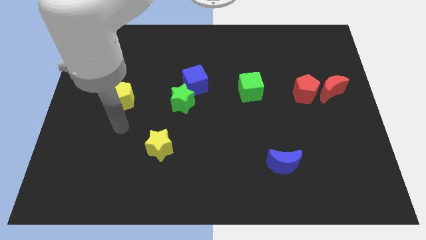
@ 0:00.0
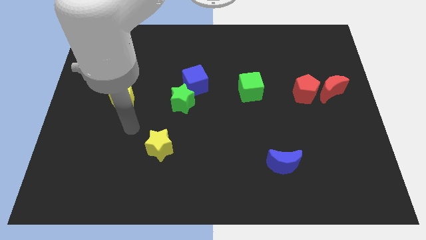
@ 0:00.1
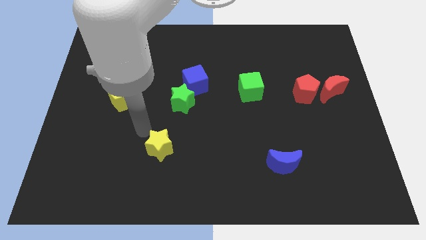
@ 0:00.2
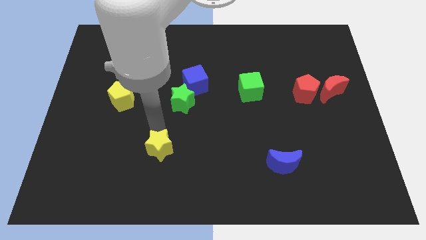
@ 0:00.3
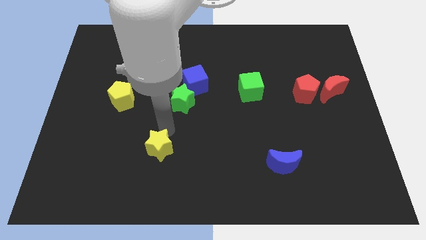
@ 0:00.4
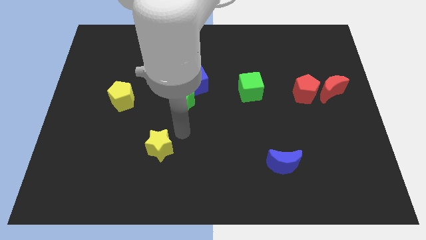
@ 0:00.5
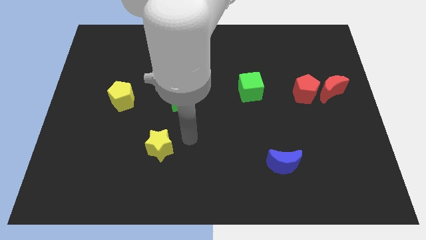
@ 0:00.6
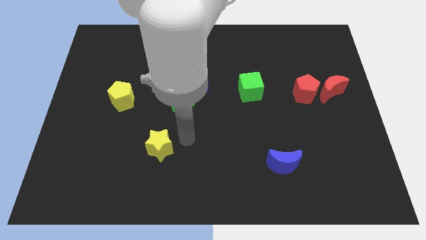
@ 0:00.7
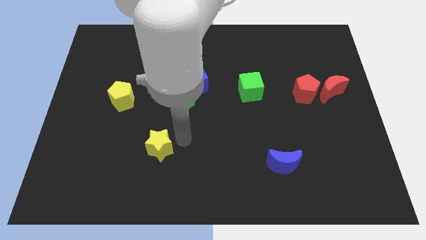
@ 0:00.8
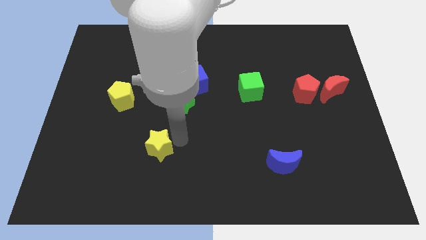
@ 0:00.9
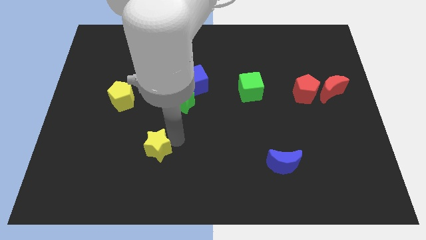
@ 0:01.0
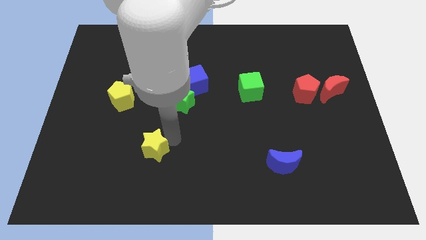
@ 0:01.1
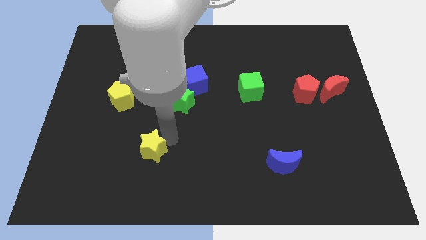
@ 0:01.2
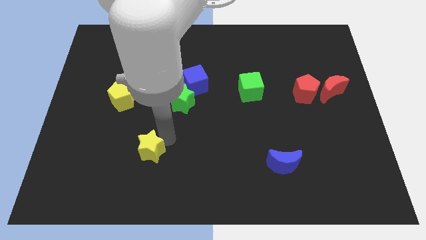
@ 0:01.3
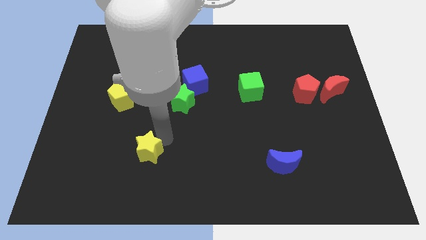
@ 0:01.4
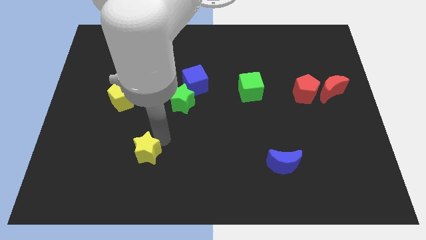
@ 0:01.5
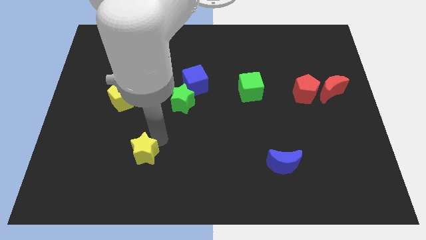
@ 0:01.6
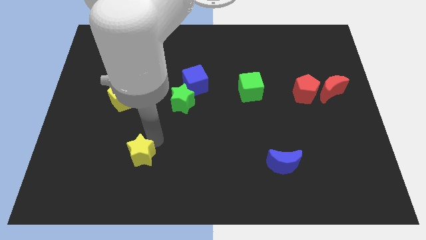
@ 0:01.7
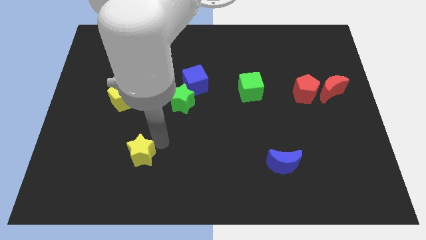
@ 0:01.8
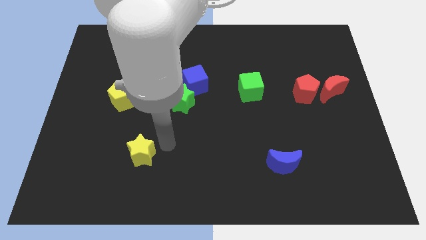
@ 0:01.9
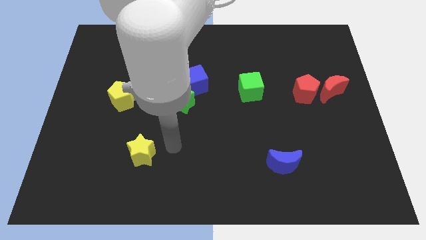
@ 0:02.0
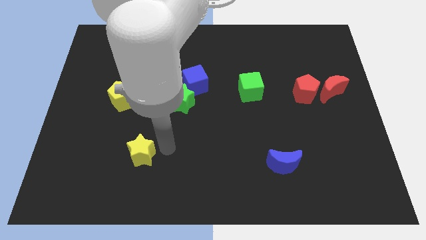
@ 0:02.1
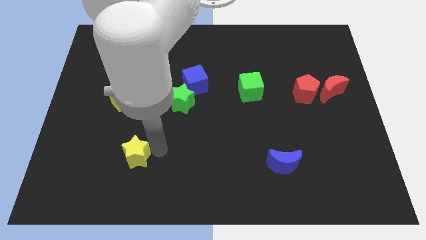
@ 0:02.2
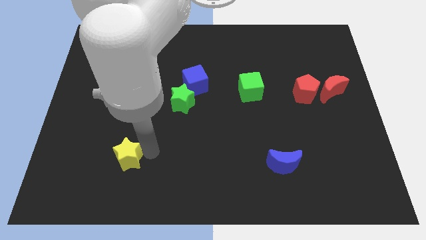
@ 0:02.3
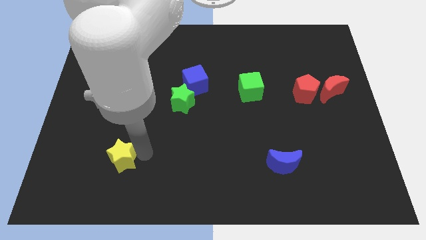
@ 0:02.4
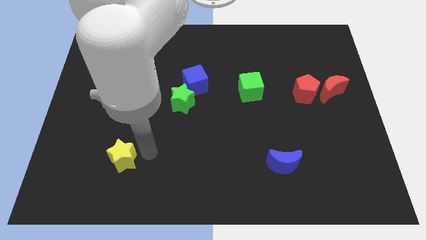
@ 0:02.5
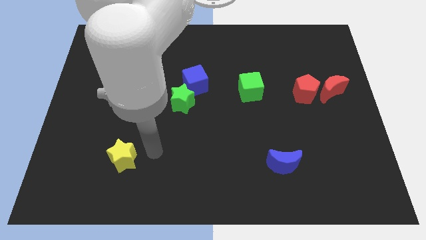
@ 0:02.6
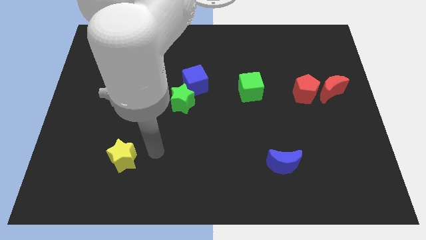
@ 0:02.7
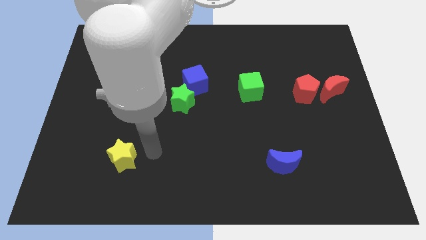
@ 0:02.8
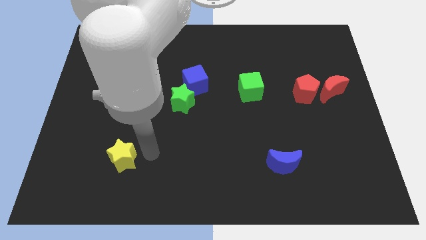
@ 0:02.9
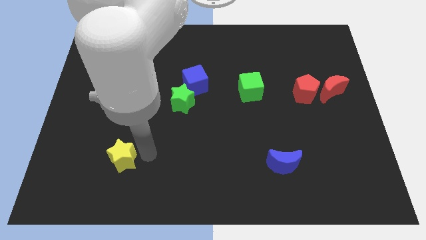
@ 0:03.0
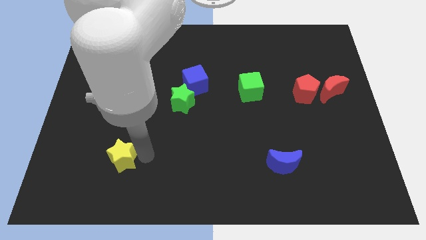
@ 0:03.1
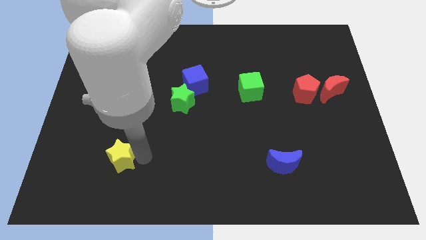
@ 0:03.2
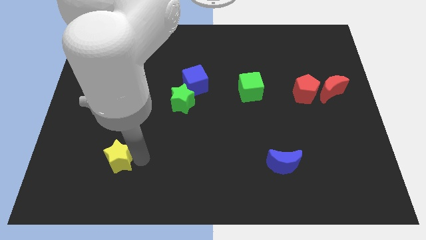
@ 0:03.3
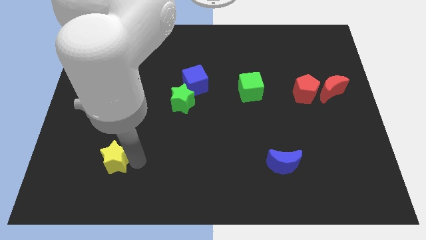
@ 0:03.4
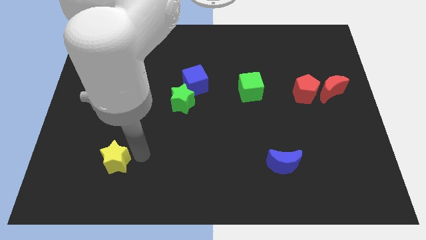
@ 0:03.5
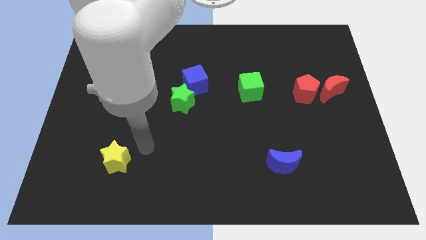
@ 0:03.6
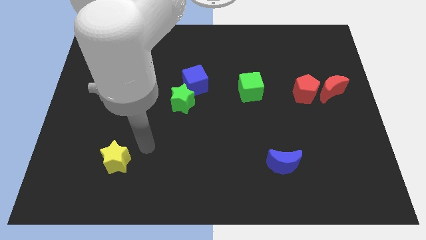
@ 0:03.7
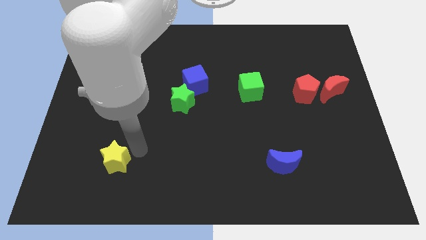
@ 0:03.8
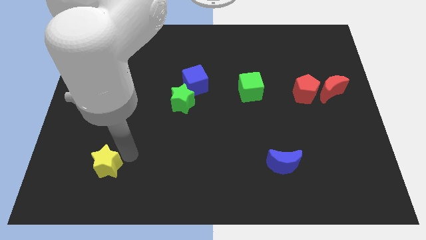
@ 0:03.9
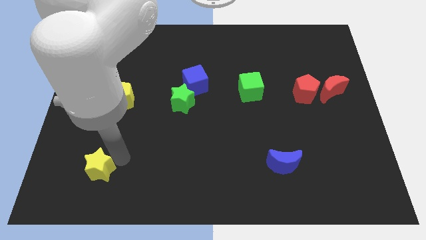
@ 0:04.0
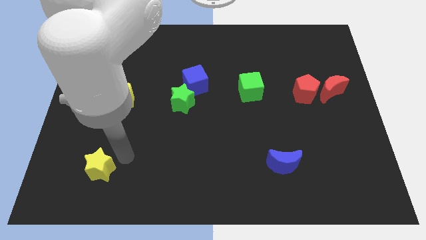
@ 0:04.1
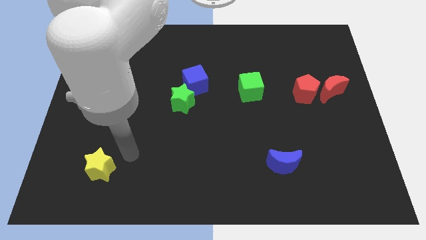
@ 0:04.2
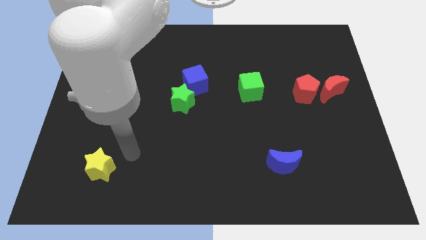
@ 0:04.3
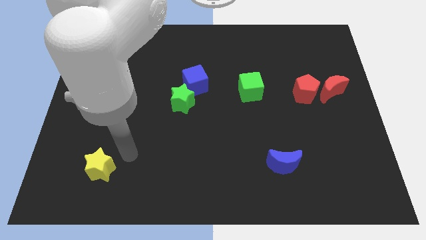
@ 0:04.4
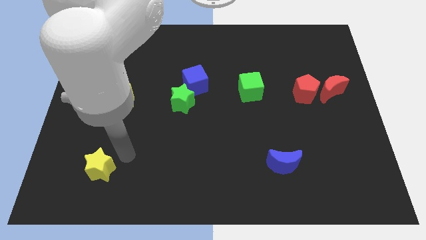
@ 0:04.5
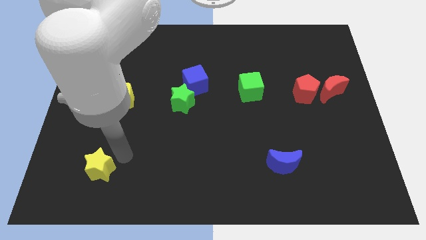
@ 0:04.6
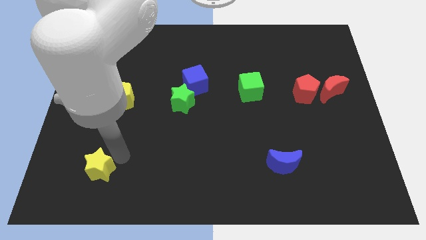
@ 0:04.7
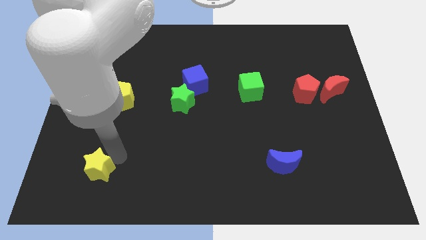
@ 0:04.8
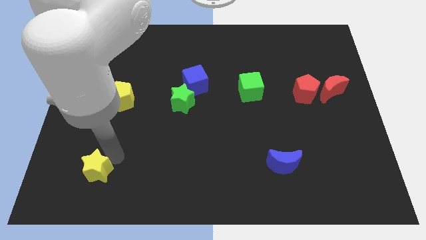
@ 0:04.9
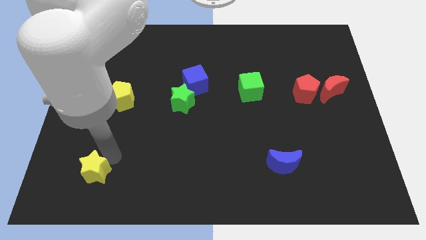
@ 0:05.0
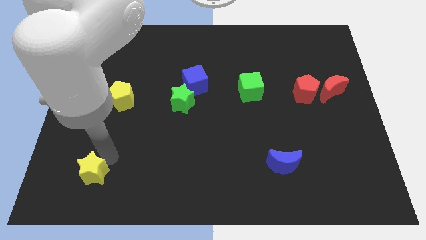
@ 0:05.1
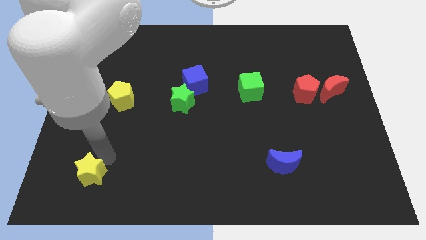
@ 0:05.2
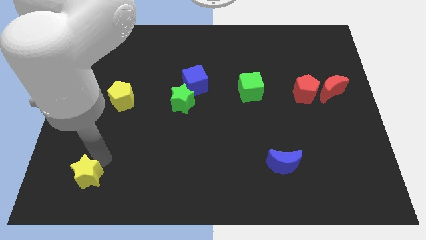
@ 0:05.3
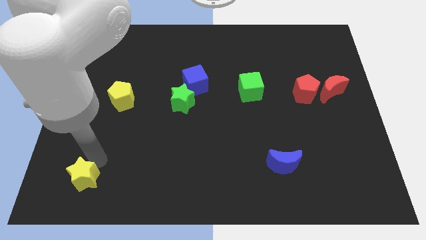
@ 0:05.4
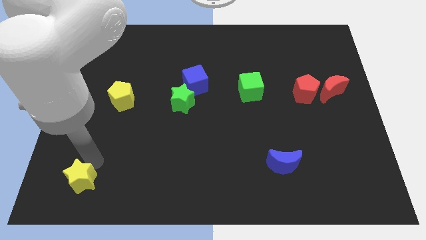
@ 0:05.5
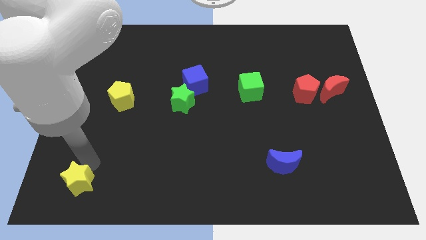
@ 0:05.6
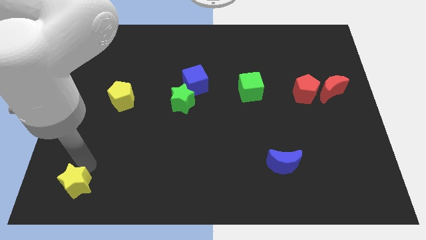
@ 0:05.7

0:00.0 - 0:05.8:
put the yellow star to the bottom left of the board
